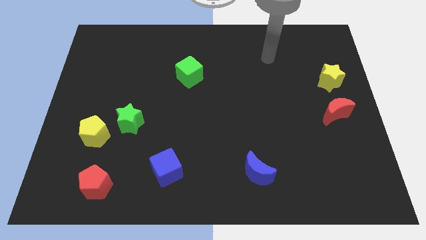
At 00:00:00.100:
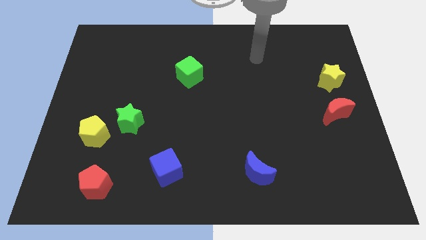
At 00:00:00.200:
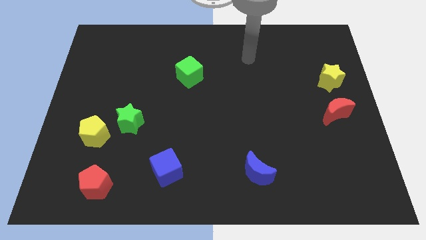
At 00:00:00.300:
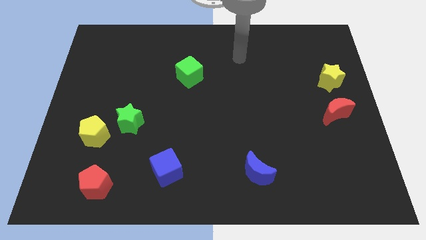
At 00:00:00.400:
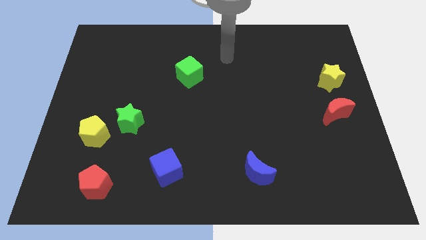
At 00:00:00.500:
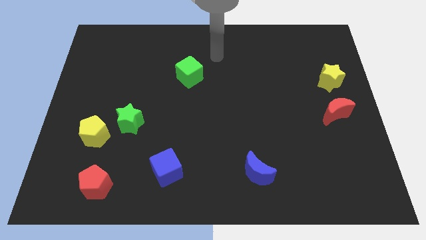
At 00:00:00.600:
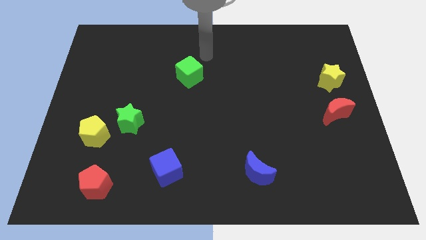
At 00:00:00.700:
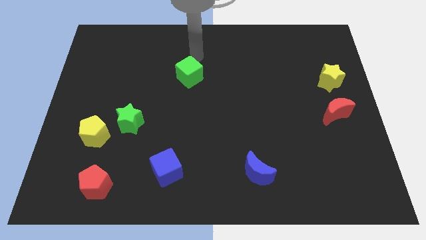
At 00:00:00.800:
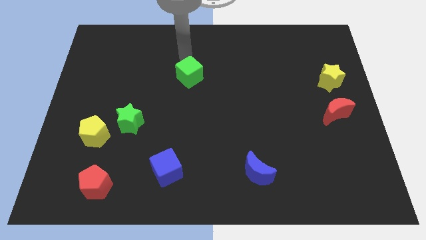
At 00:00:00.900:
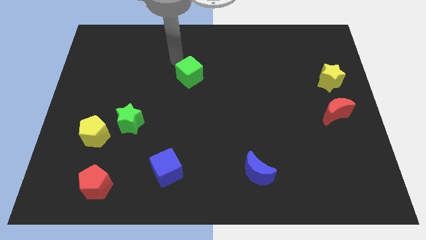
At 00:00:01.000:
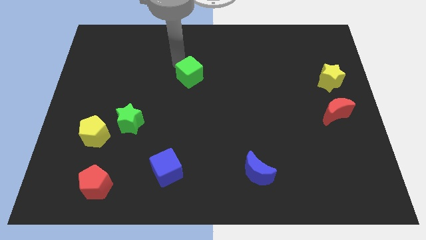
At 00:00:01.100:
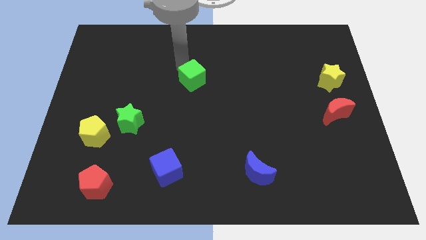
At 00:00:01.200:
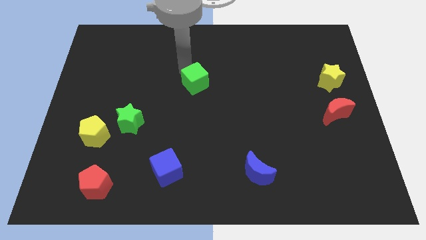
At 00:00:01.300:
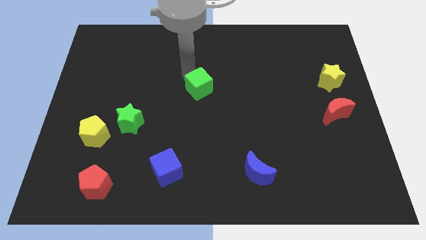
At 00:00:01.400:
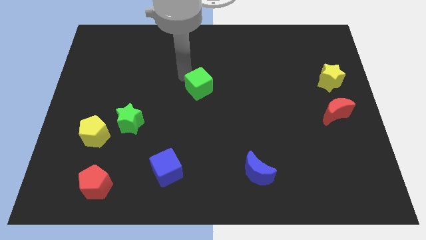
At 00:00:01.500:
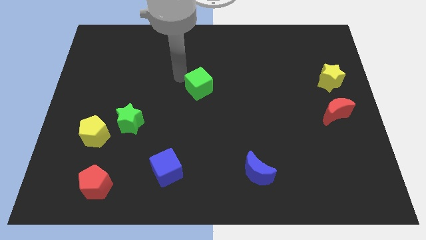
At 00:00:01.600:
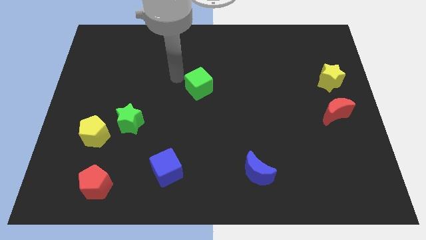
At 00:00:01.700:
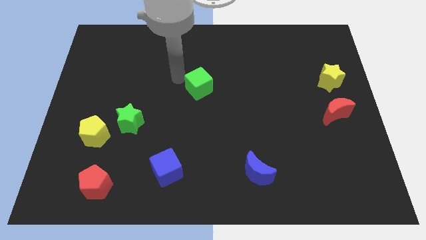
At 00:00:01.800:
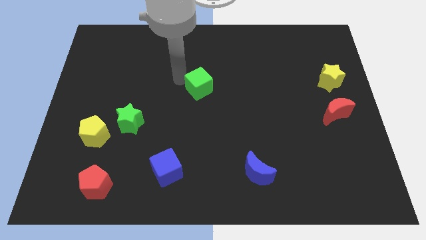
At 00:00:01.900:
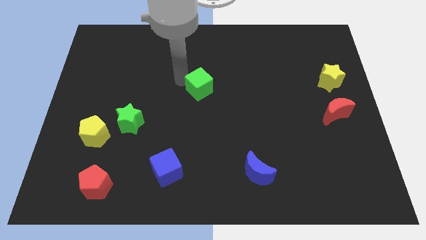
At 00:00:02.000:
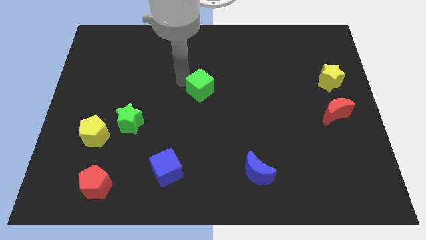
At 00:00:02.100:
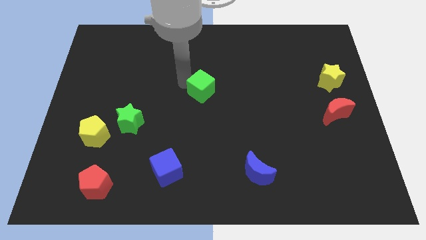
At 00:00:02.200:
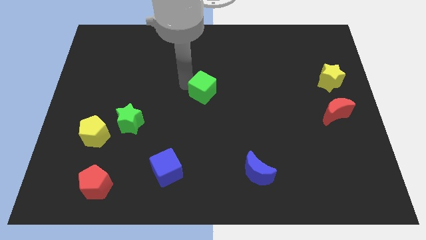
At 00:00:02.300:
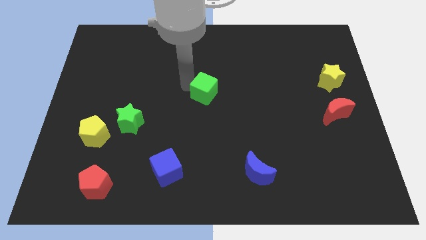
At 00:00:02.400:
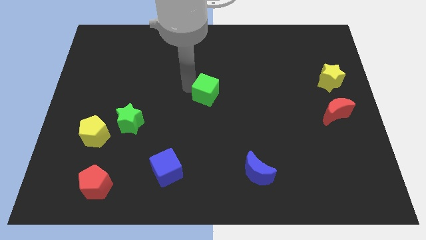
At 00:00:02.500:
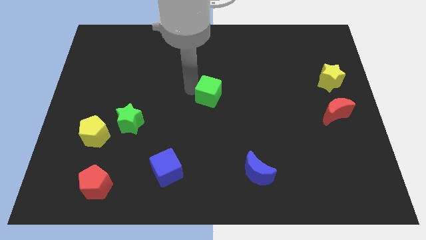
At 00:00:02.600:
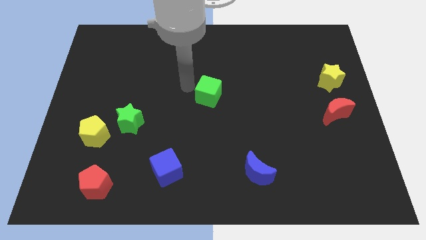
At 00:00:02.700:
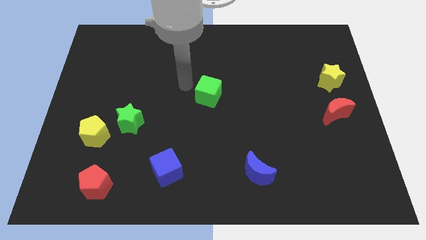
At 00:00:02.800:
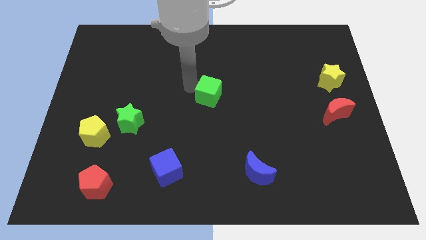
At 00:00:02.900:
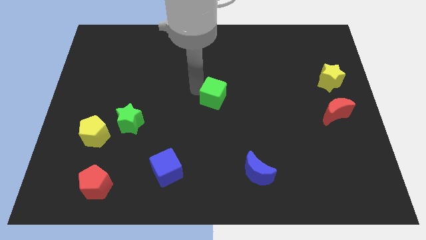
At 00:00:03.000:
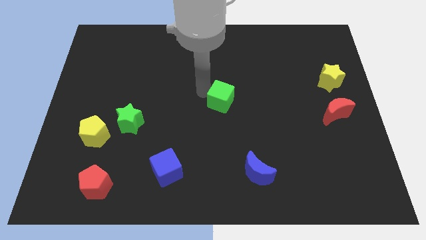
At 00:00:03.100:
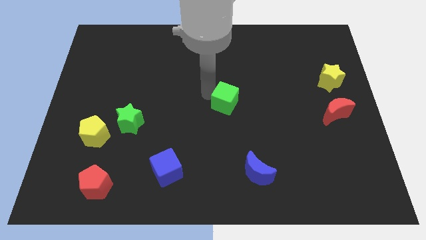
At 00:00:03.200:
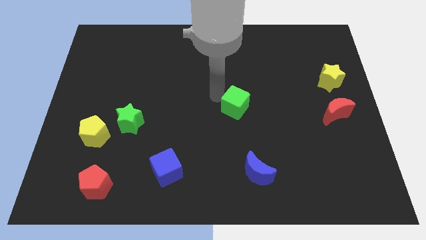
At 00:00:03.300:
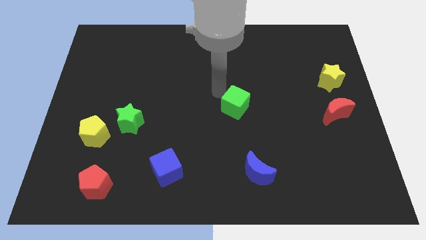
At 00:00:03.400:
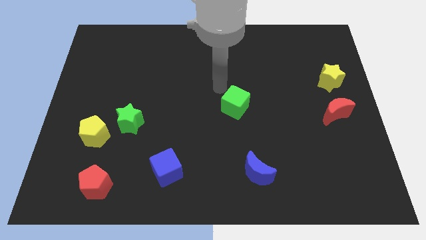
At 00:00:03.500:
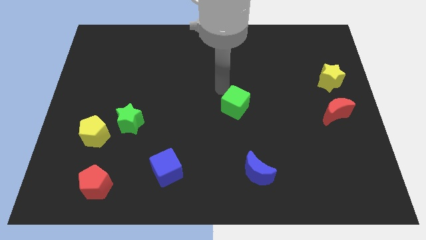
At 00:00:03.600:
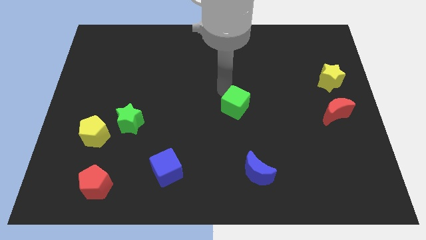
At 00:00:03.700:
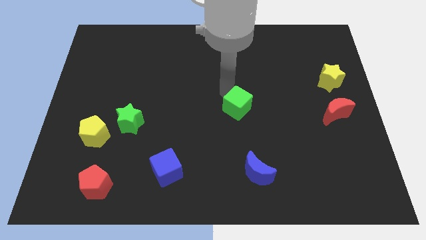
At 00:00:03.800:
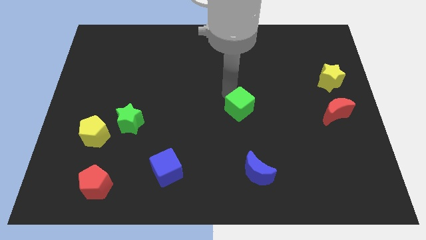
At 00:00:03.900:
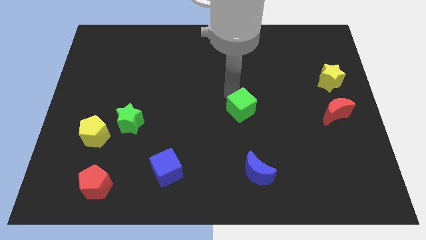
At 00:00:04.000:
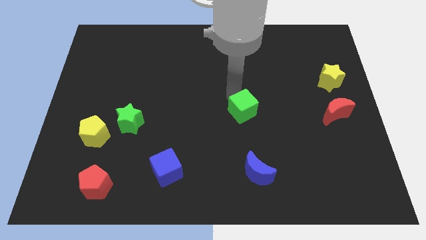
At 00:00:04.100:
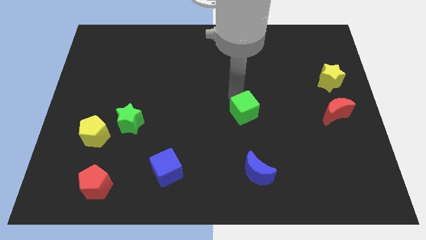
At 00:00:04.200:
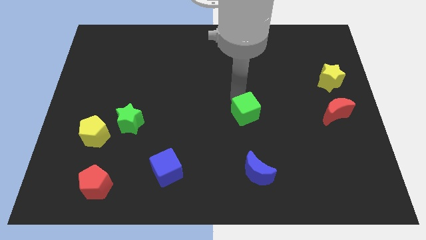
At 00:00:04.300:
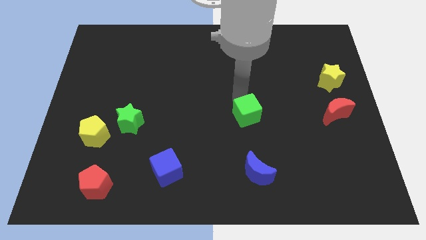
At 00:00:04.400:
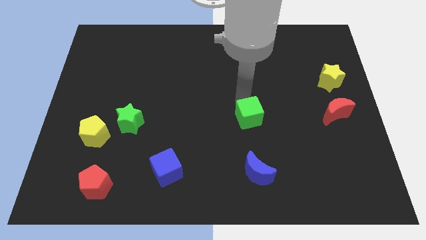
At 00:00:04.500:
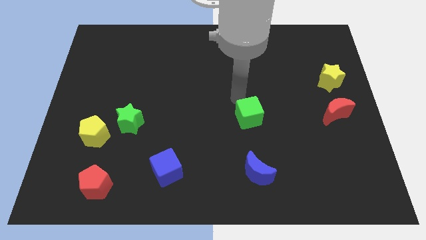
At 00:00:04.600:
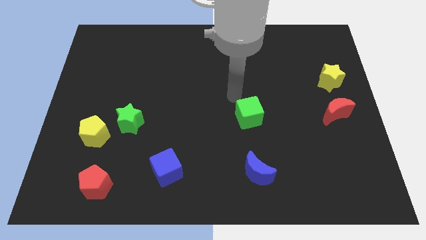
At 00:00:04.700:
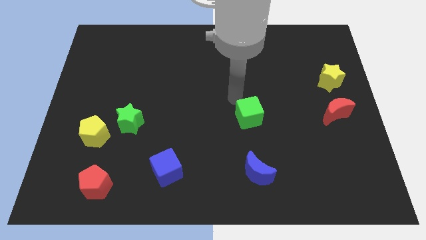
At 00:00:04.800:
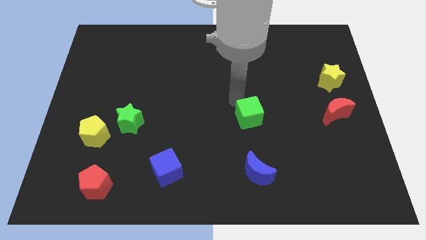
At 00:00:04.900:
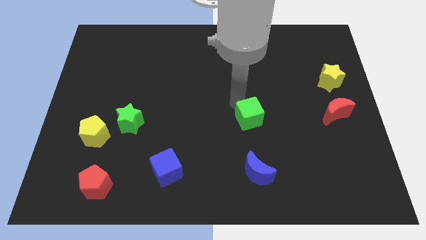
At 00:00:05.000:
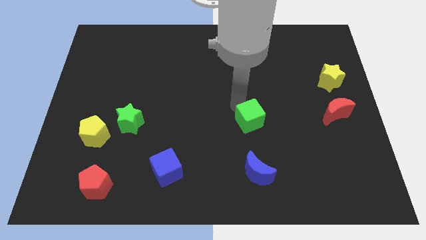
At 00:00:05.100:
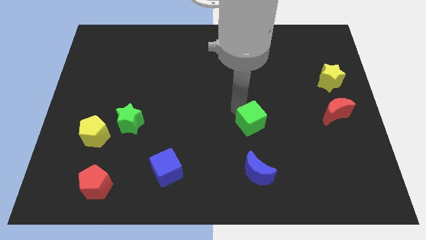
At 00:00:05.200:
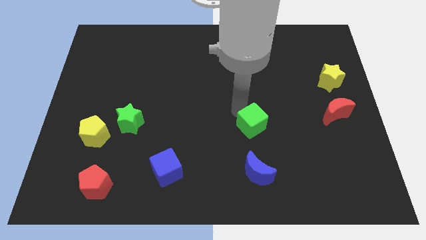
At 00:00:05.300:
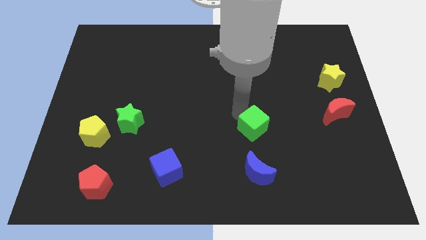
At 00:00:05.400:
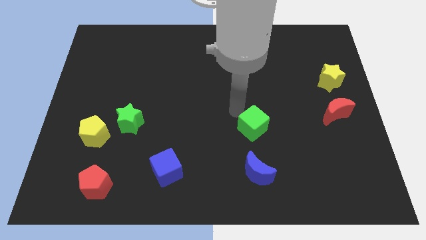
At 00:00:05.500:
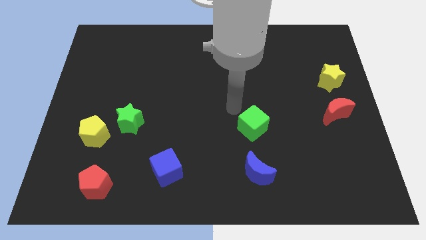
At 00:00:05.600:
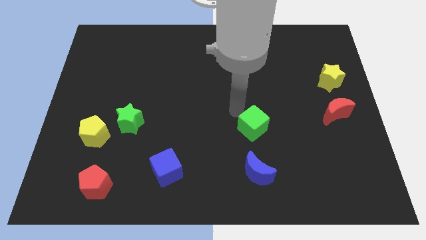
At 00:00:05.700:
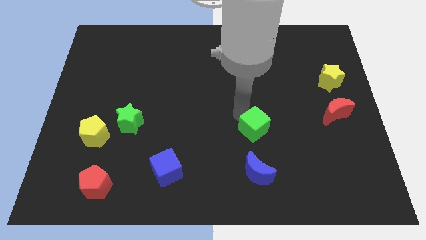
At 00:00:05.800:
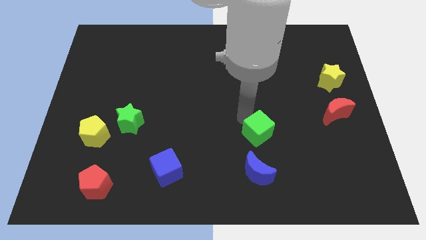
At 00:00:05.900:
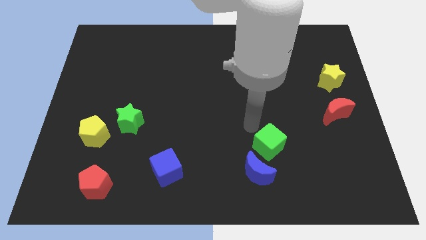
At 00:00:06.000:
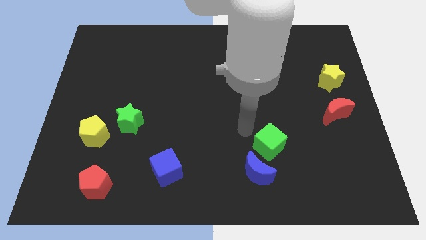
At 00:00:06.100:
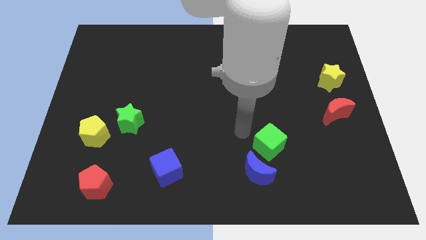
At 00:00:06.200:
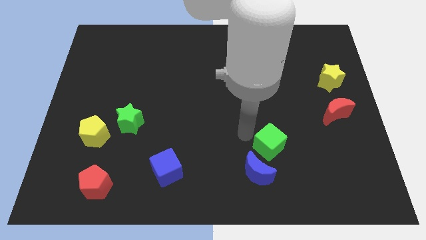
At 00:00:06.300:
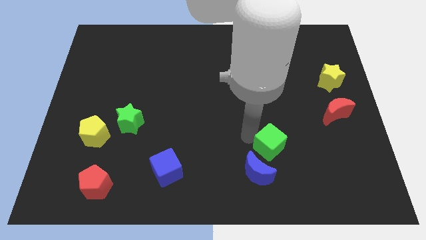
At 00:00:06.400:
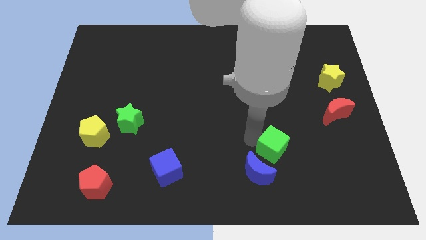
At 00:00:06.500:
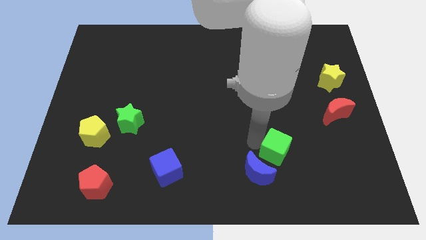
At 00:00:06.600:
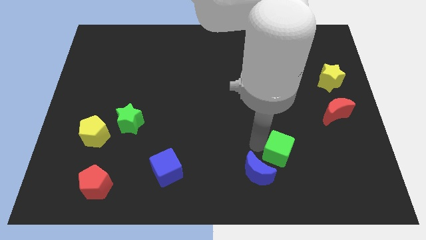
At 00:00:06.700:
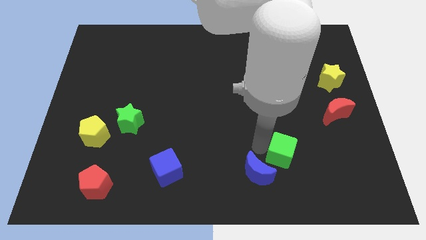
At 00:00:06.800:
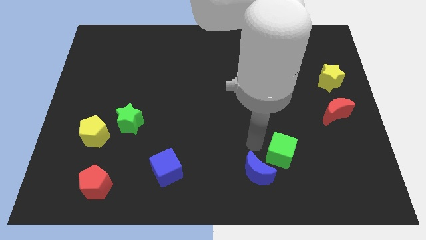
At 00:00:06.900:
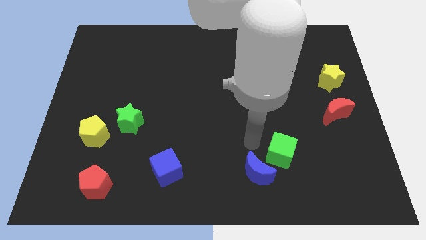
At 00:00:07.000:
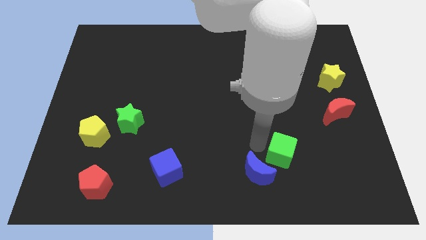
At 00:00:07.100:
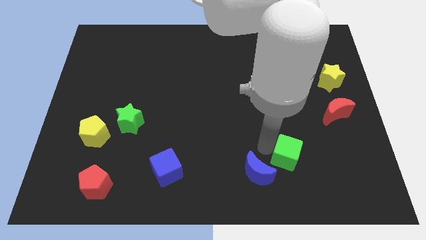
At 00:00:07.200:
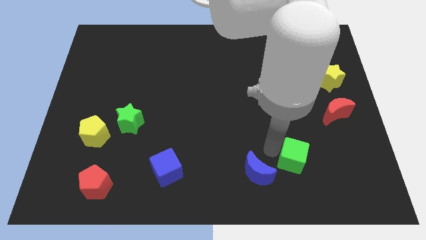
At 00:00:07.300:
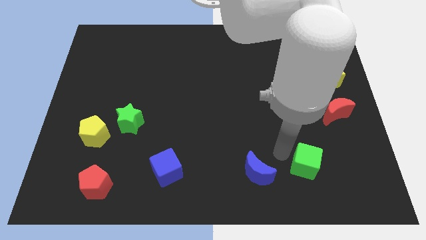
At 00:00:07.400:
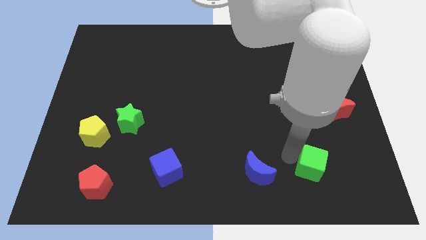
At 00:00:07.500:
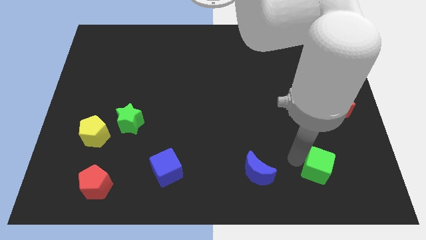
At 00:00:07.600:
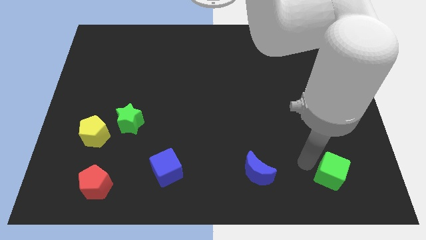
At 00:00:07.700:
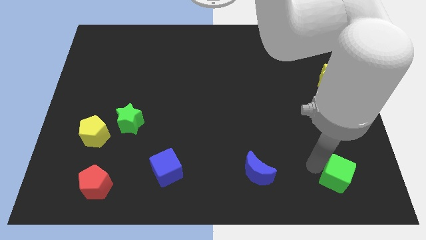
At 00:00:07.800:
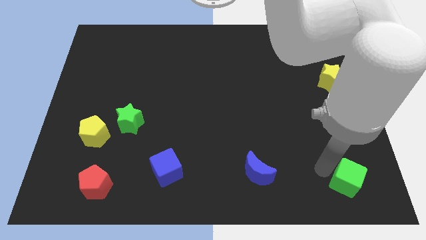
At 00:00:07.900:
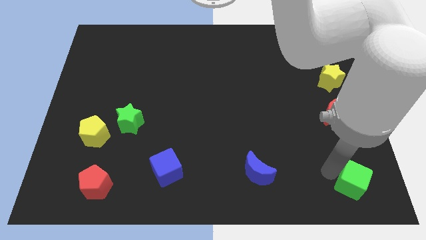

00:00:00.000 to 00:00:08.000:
slide the green cube to the bottom right of the board
